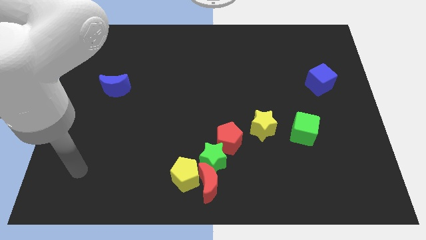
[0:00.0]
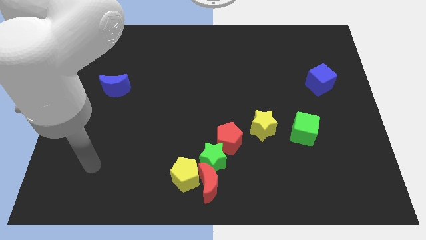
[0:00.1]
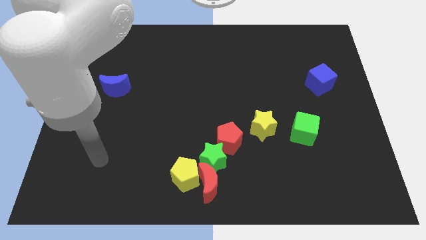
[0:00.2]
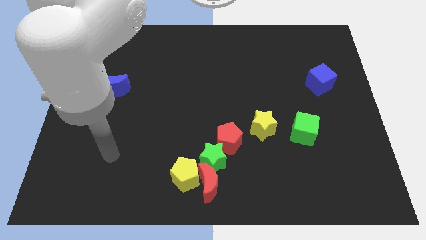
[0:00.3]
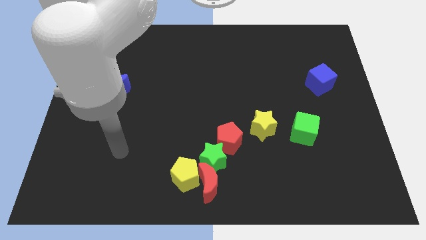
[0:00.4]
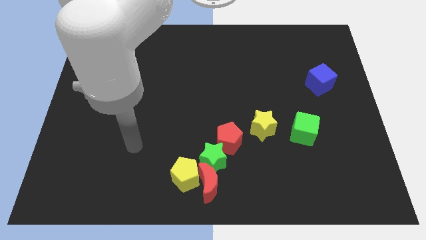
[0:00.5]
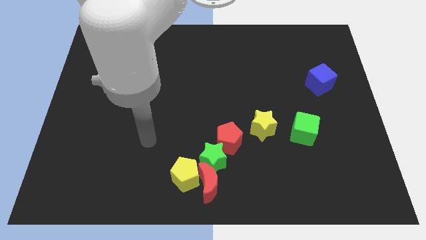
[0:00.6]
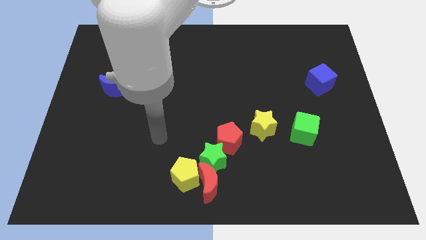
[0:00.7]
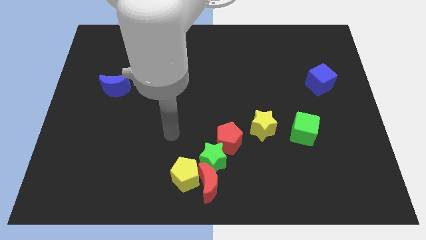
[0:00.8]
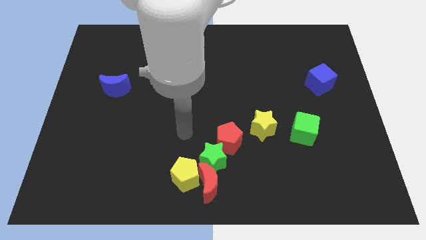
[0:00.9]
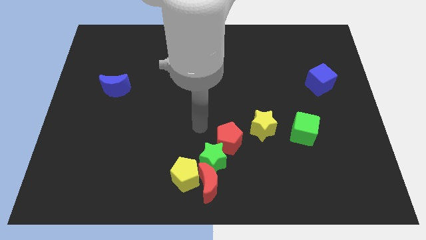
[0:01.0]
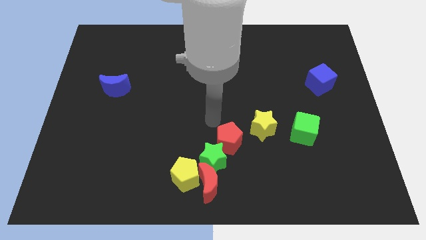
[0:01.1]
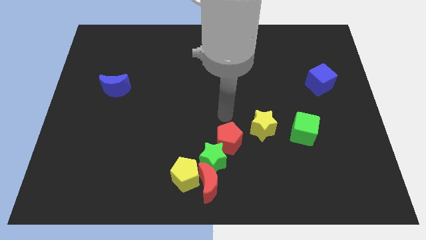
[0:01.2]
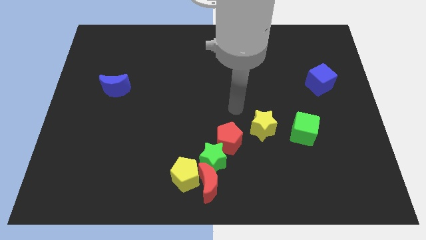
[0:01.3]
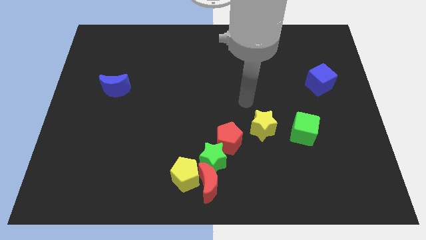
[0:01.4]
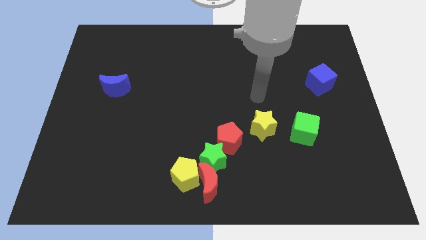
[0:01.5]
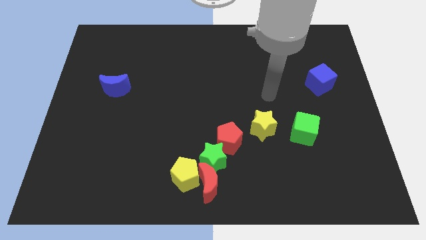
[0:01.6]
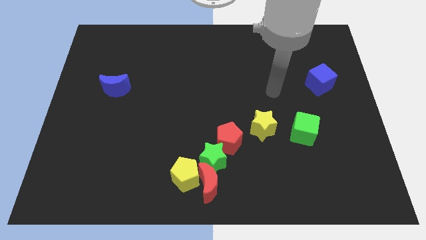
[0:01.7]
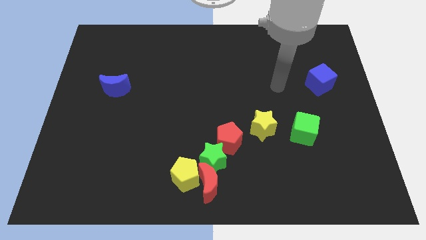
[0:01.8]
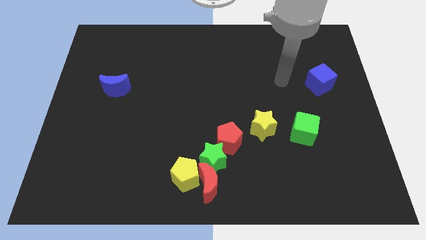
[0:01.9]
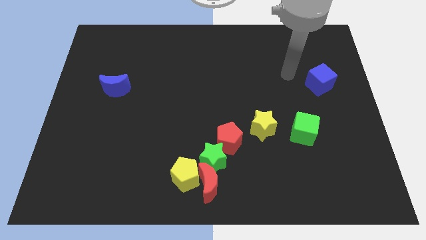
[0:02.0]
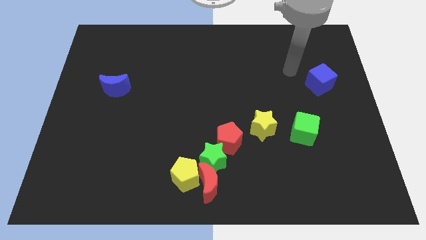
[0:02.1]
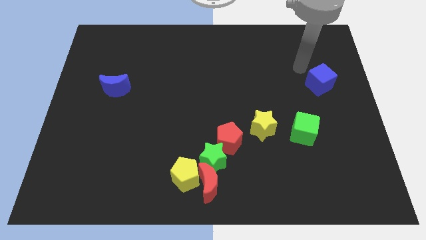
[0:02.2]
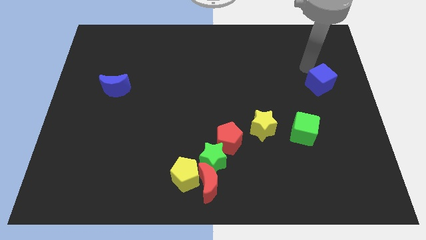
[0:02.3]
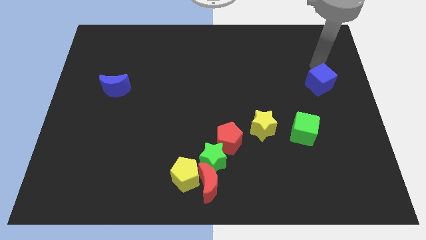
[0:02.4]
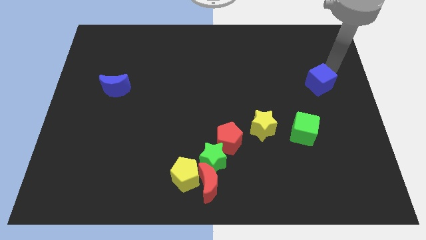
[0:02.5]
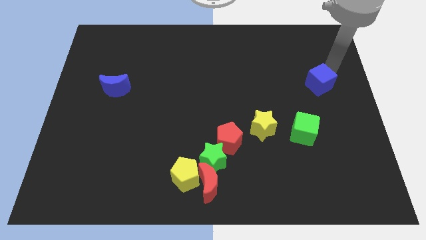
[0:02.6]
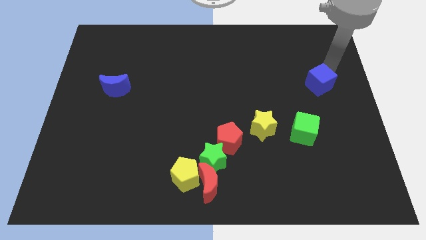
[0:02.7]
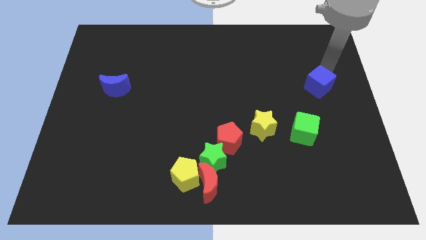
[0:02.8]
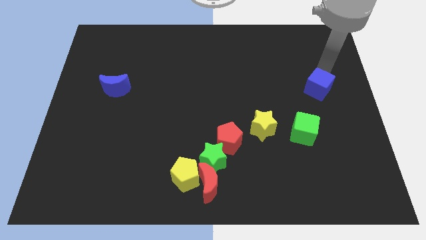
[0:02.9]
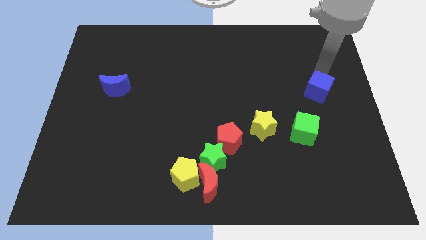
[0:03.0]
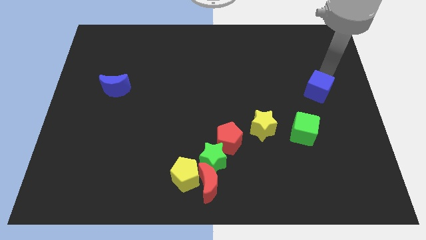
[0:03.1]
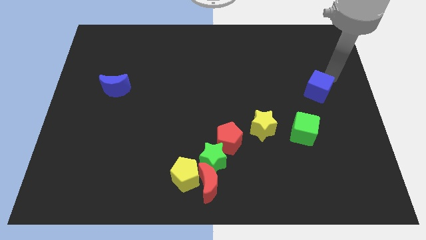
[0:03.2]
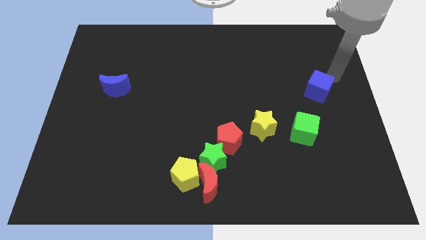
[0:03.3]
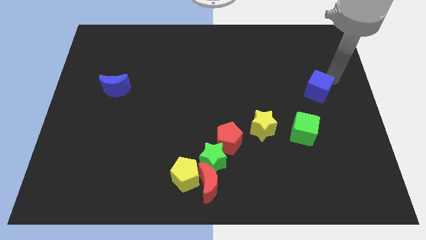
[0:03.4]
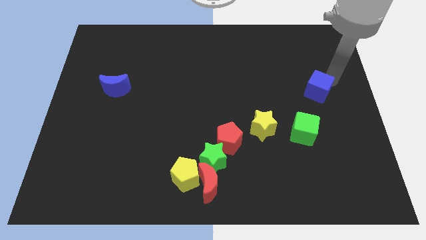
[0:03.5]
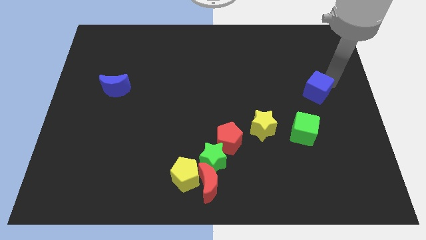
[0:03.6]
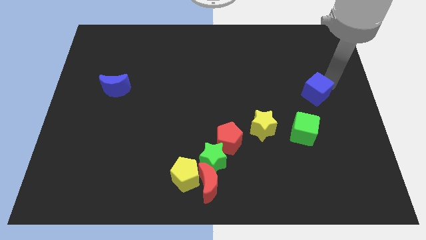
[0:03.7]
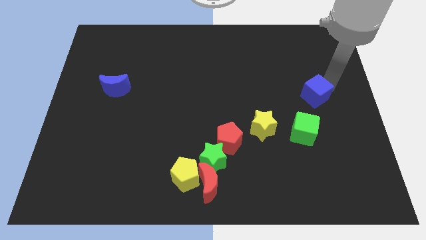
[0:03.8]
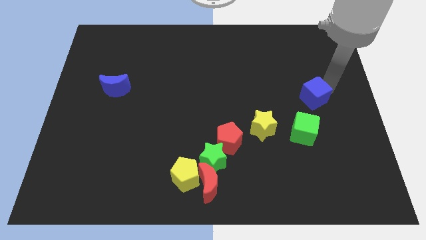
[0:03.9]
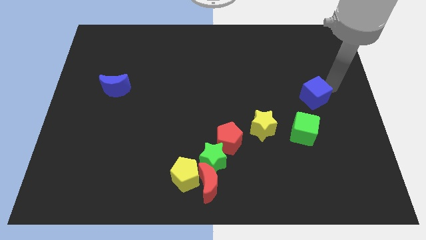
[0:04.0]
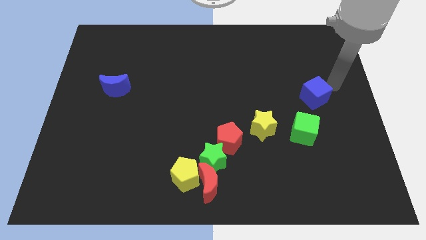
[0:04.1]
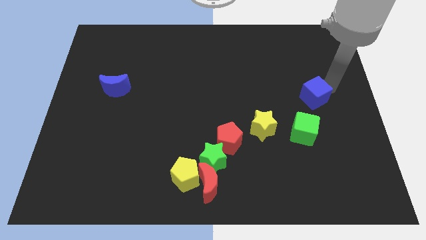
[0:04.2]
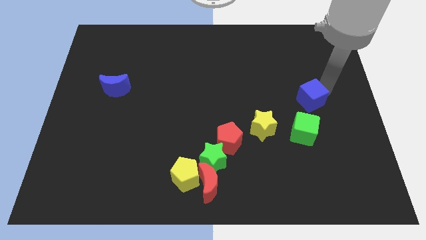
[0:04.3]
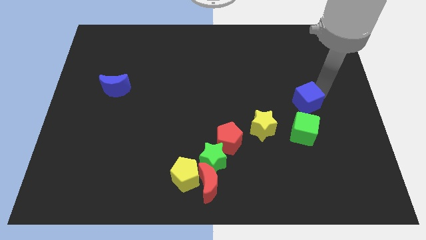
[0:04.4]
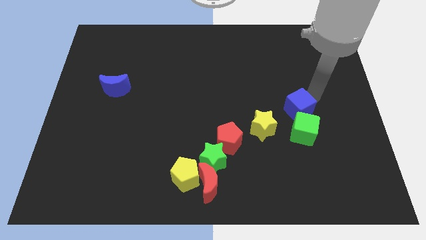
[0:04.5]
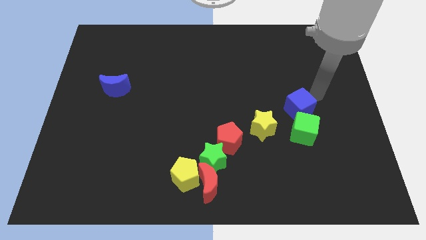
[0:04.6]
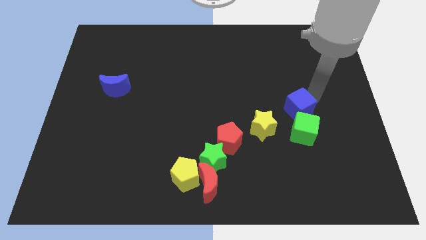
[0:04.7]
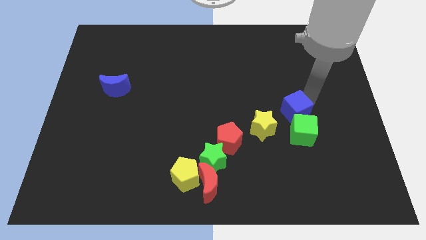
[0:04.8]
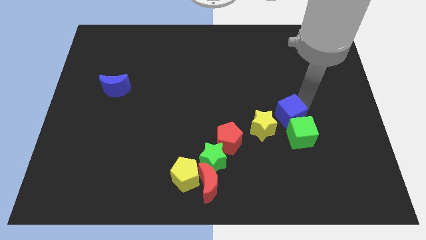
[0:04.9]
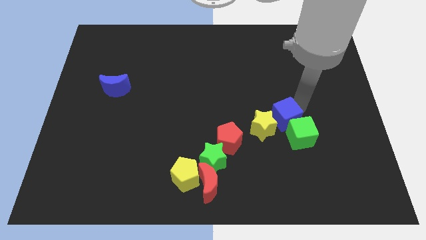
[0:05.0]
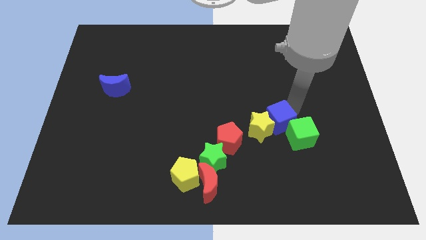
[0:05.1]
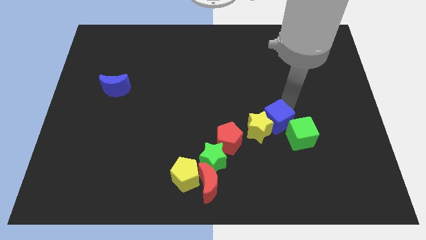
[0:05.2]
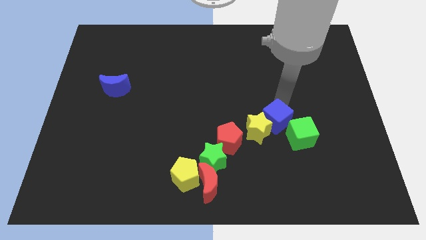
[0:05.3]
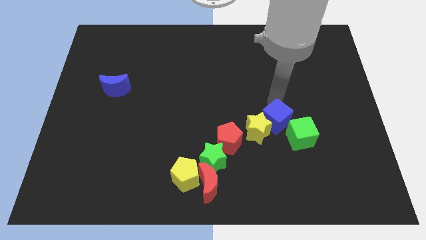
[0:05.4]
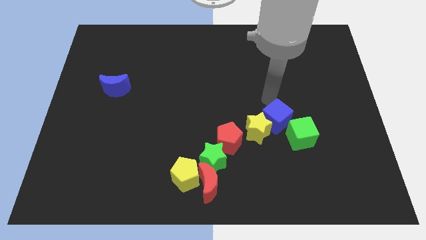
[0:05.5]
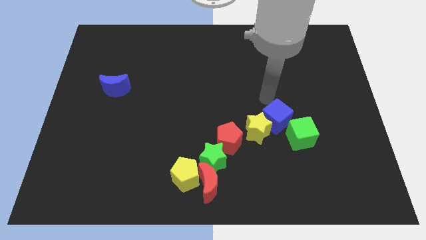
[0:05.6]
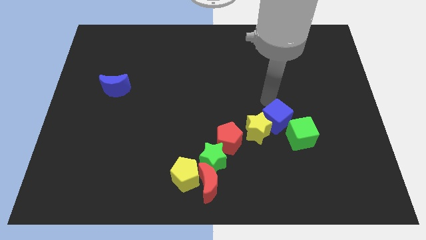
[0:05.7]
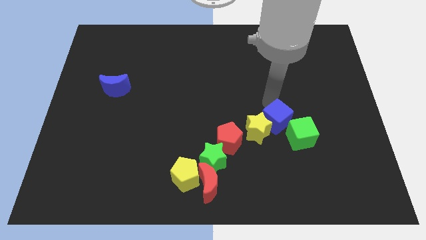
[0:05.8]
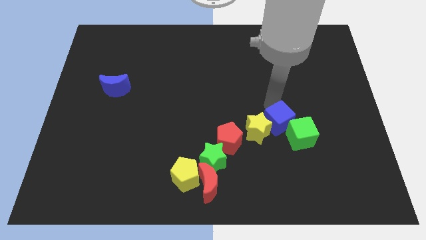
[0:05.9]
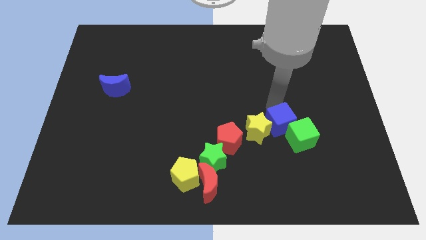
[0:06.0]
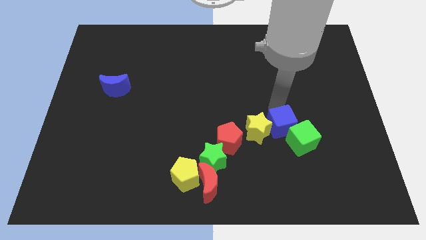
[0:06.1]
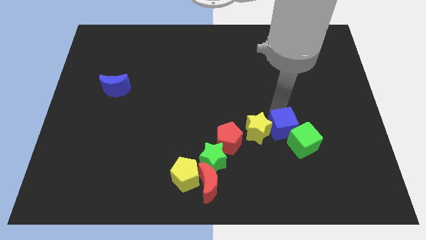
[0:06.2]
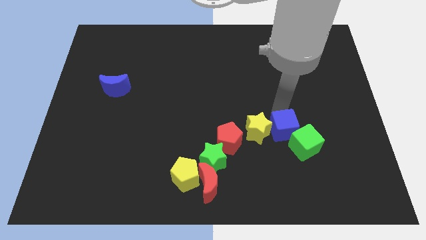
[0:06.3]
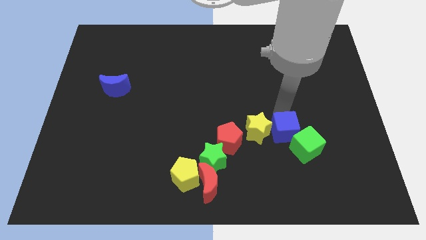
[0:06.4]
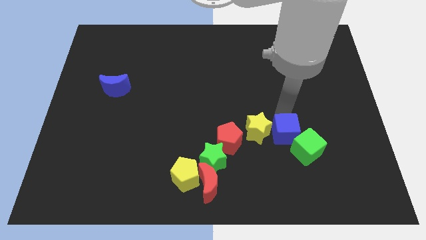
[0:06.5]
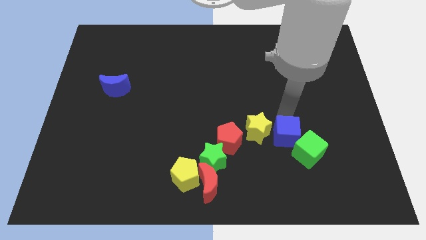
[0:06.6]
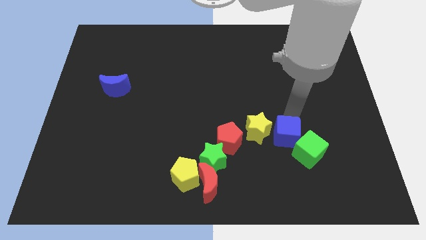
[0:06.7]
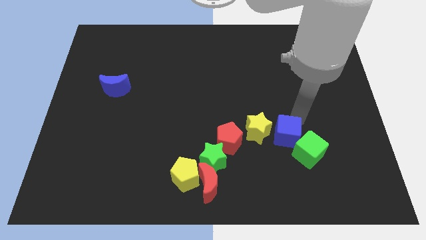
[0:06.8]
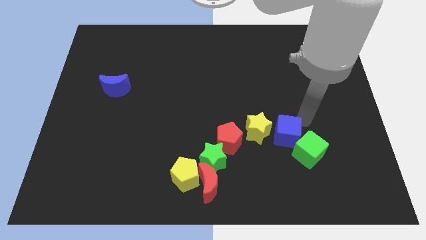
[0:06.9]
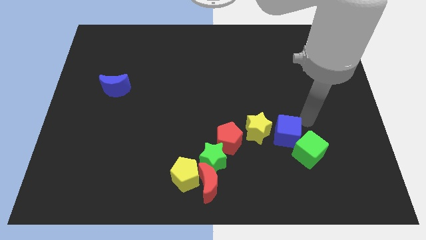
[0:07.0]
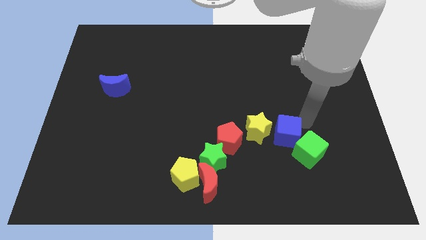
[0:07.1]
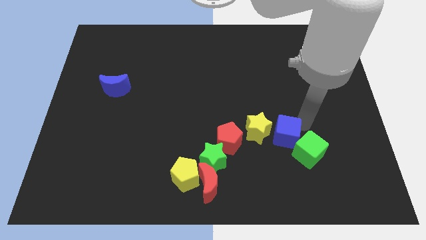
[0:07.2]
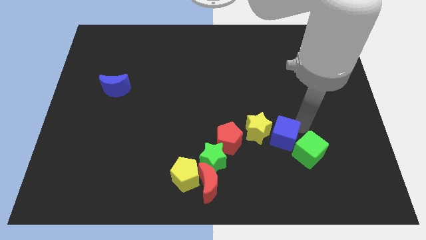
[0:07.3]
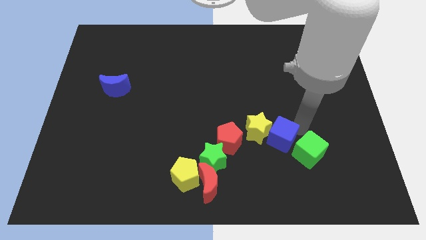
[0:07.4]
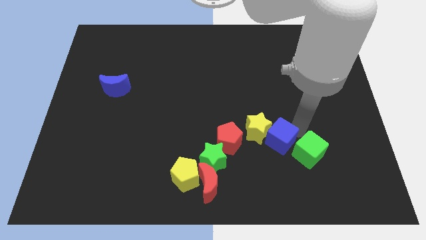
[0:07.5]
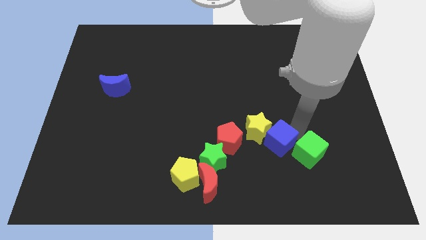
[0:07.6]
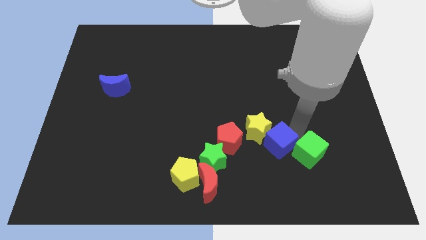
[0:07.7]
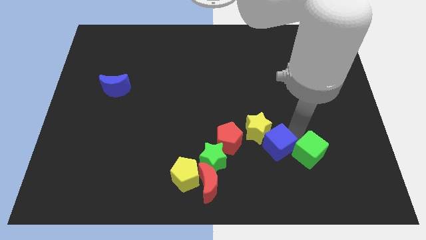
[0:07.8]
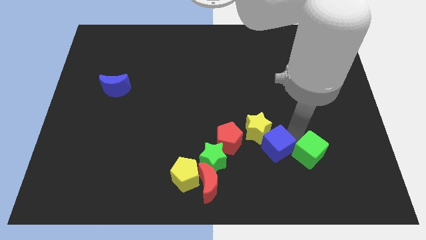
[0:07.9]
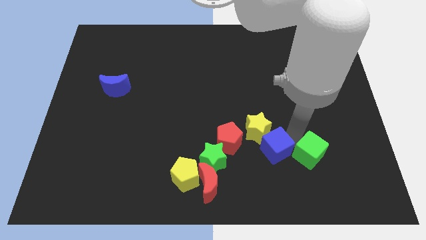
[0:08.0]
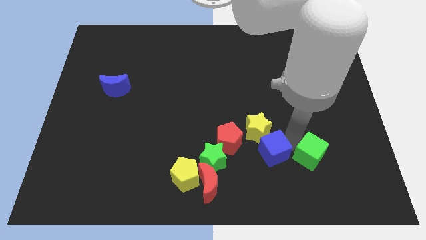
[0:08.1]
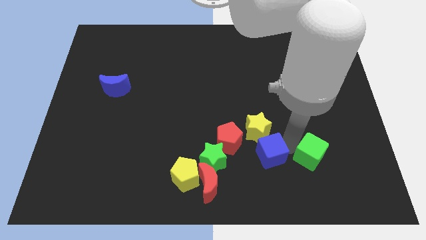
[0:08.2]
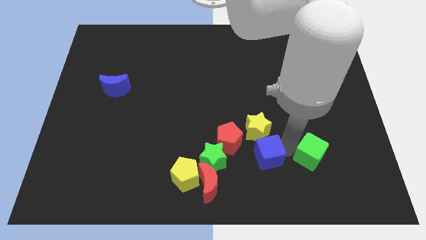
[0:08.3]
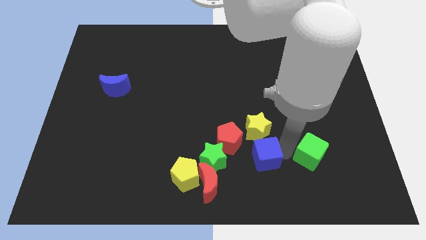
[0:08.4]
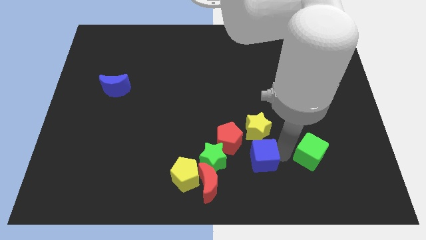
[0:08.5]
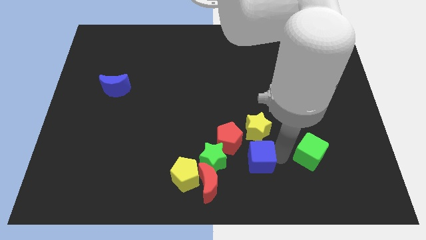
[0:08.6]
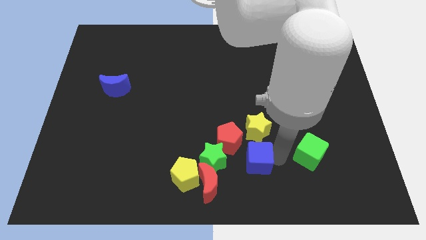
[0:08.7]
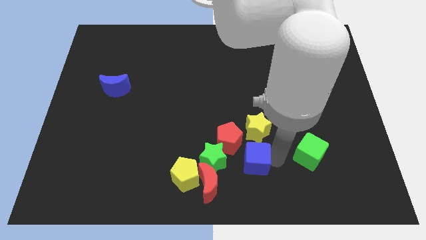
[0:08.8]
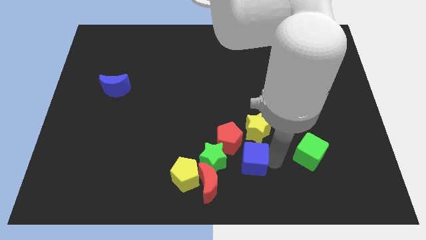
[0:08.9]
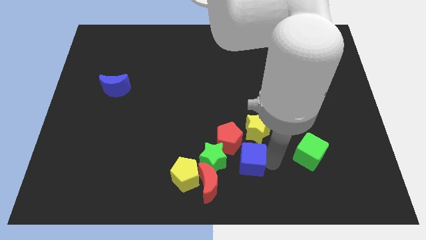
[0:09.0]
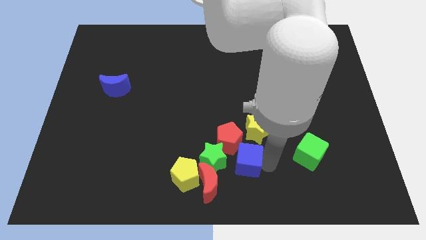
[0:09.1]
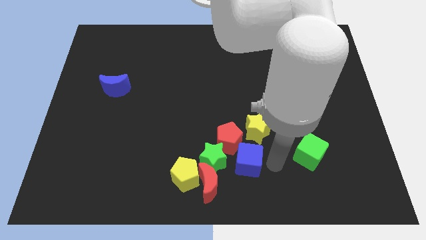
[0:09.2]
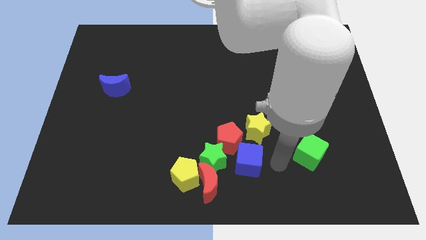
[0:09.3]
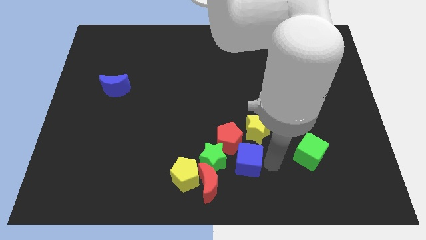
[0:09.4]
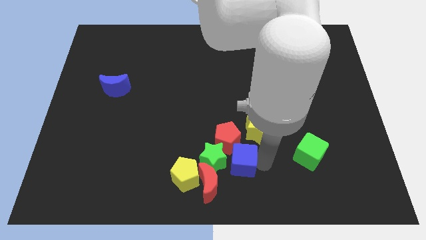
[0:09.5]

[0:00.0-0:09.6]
push the blue cube to the green star
